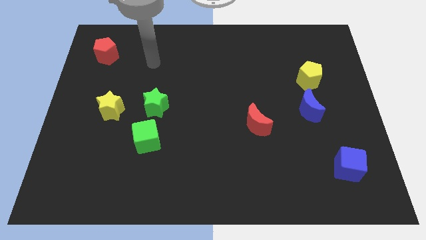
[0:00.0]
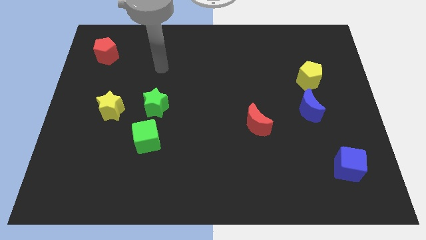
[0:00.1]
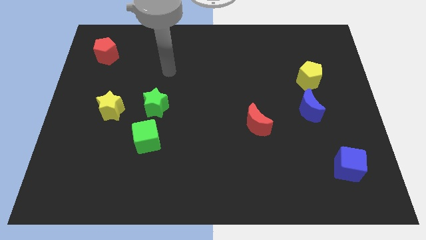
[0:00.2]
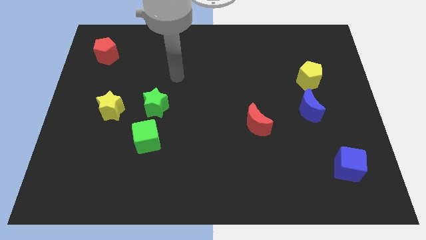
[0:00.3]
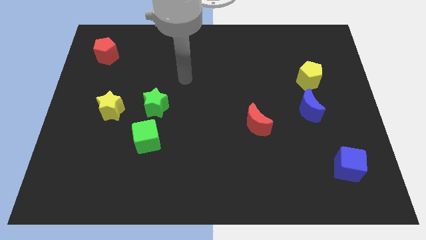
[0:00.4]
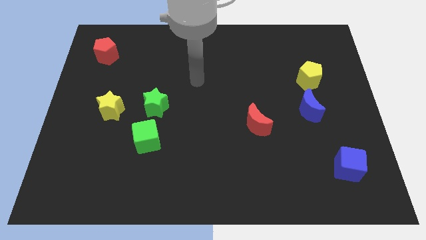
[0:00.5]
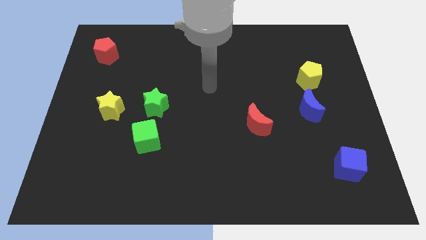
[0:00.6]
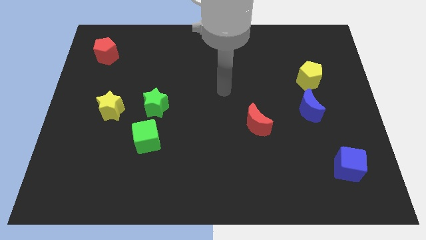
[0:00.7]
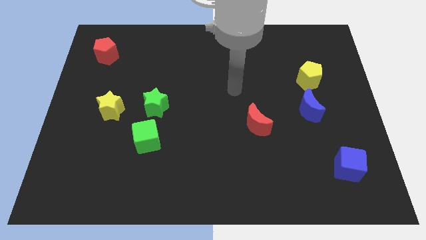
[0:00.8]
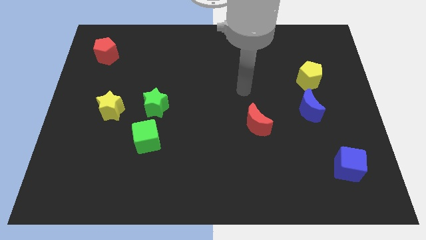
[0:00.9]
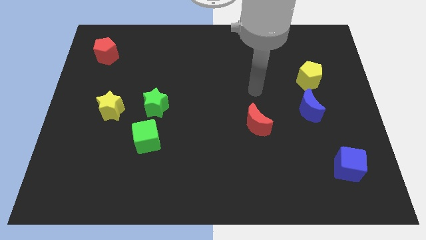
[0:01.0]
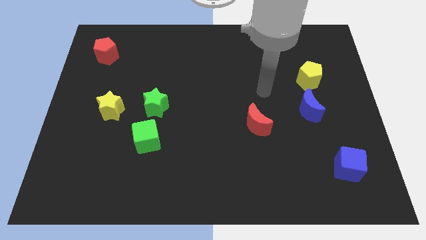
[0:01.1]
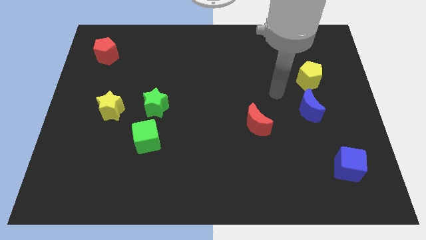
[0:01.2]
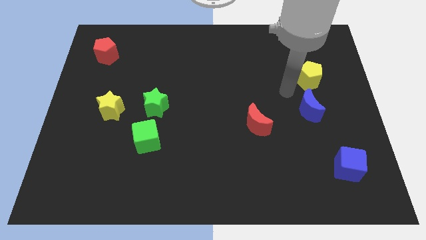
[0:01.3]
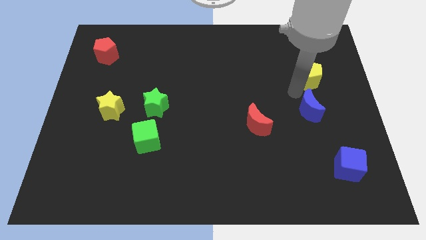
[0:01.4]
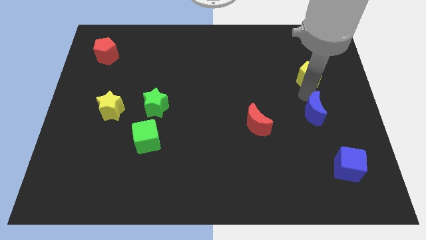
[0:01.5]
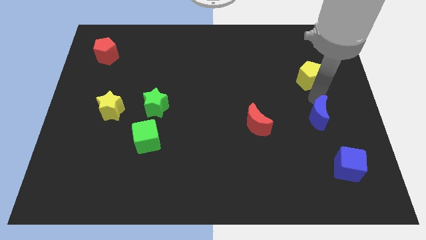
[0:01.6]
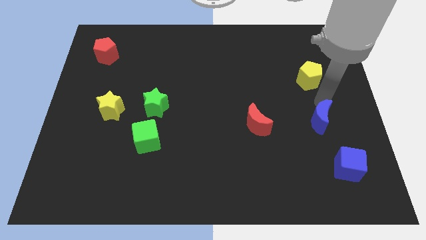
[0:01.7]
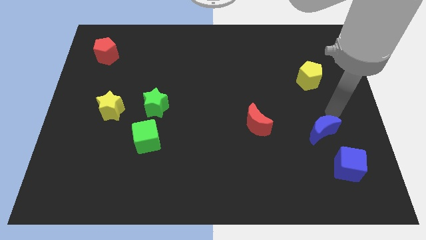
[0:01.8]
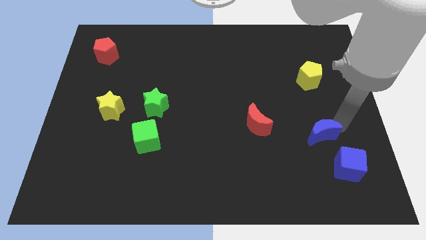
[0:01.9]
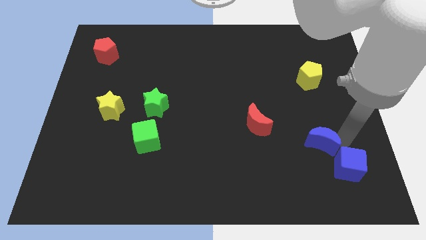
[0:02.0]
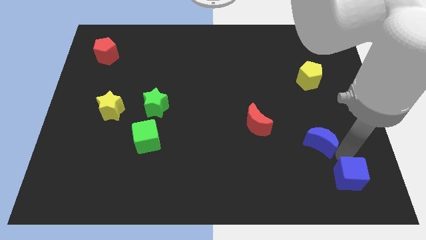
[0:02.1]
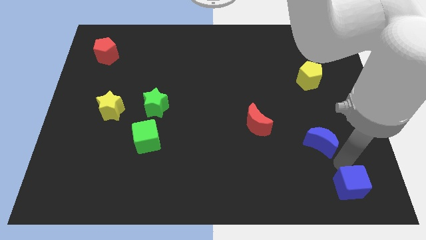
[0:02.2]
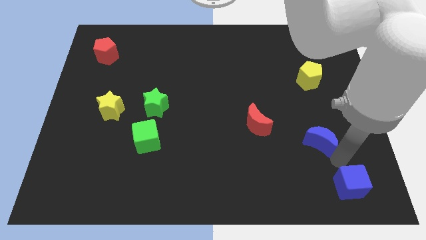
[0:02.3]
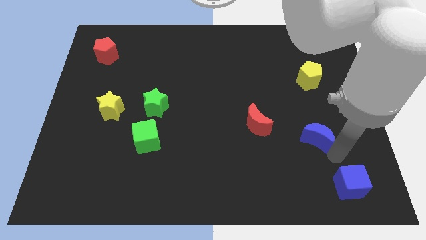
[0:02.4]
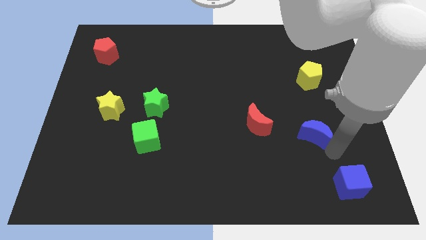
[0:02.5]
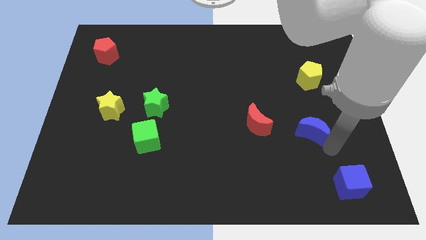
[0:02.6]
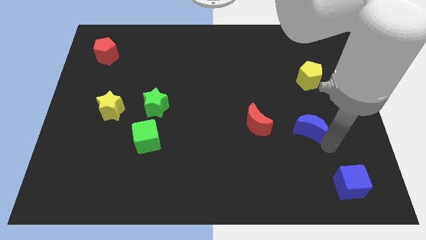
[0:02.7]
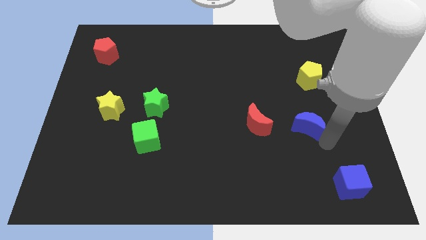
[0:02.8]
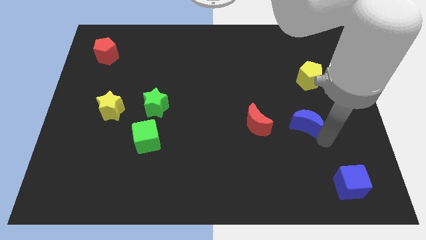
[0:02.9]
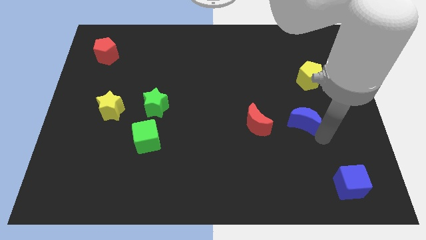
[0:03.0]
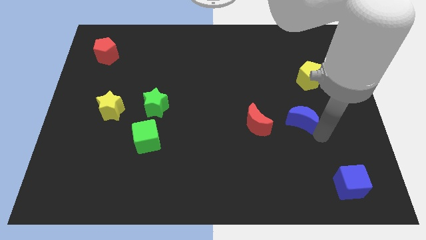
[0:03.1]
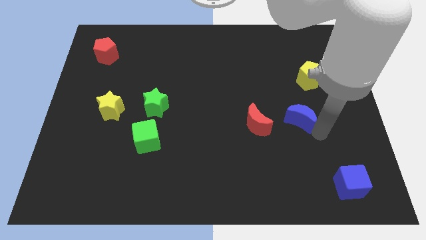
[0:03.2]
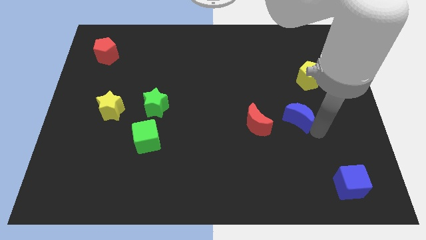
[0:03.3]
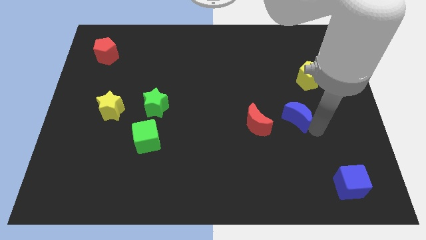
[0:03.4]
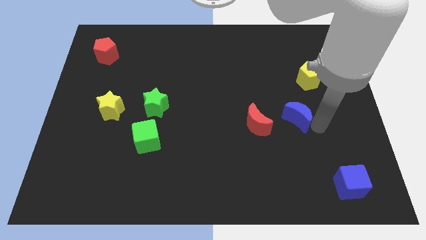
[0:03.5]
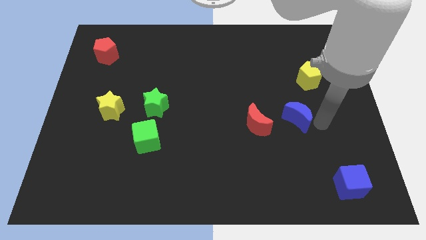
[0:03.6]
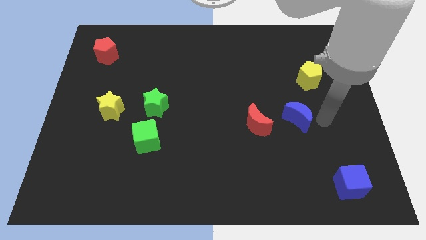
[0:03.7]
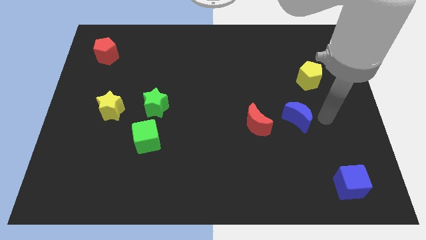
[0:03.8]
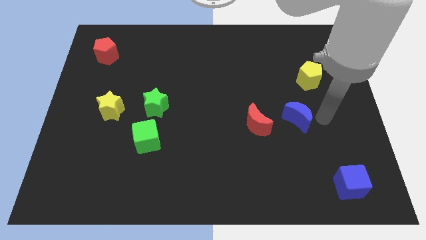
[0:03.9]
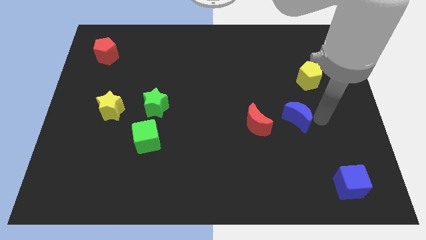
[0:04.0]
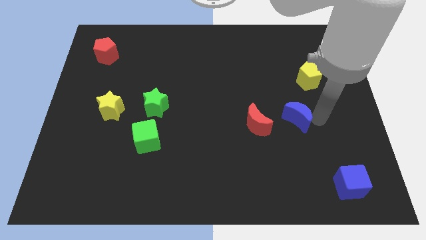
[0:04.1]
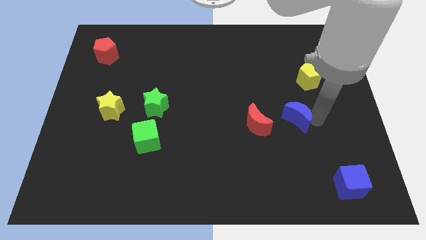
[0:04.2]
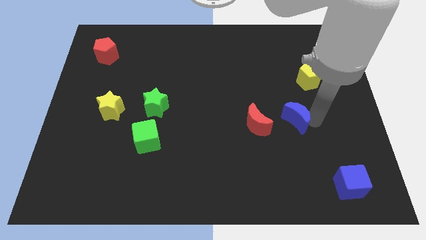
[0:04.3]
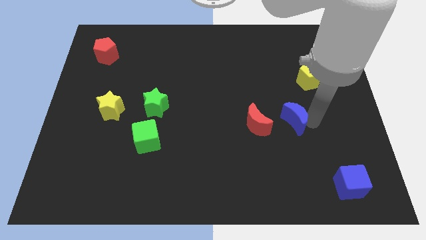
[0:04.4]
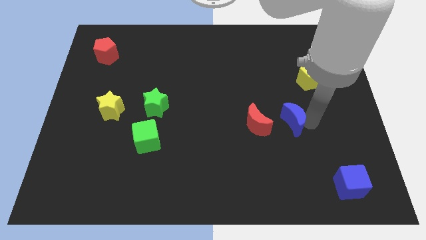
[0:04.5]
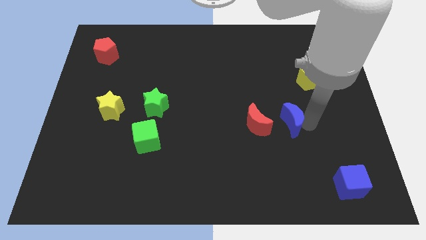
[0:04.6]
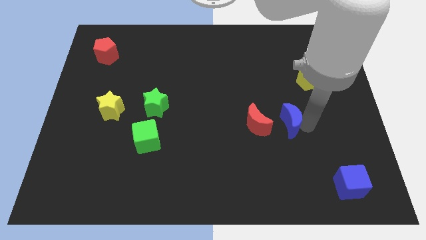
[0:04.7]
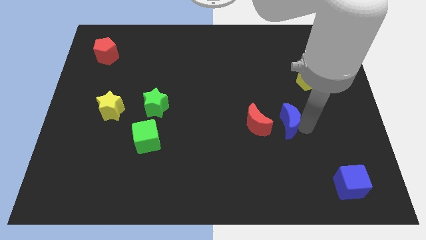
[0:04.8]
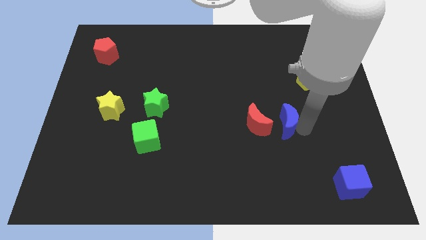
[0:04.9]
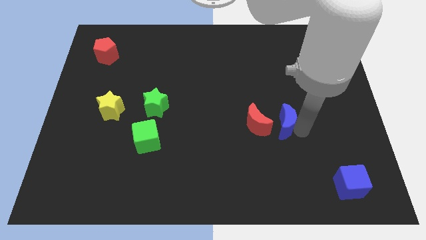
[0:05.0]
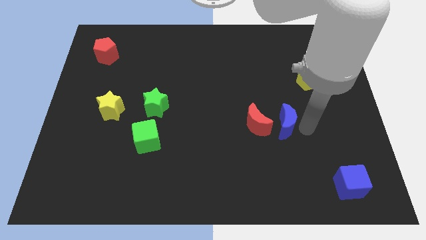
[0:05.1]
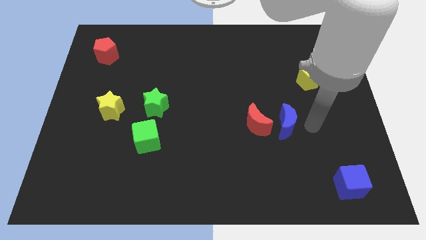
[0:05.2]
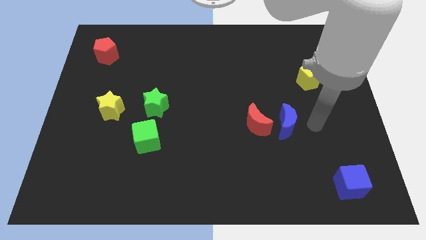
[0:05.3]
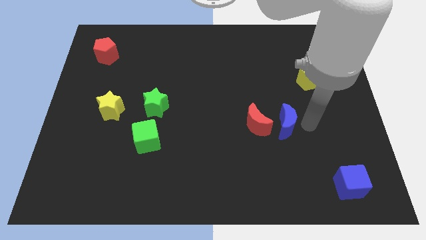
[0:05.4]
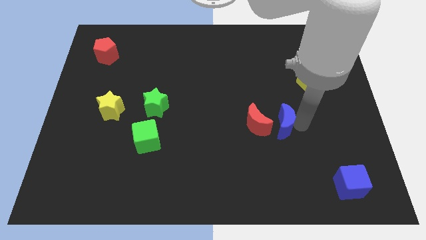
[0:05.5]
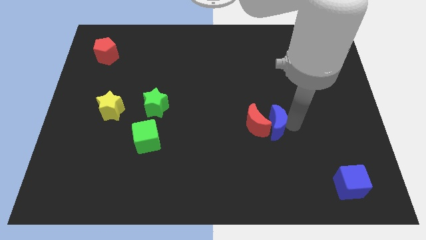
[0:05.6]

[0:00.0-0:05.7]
move the blue moon close to the red moon

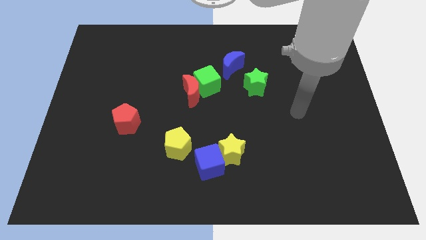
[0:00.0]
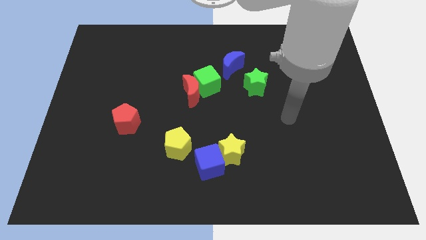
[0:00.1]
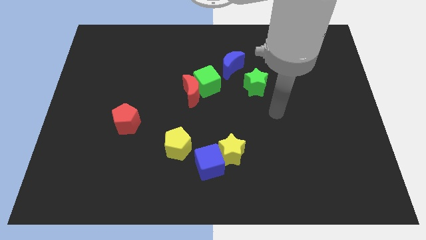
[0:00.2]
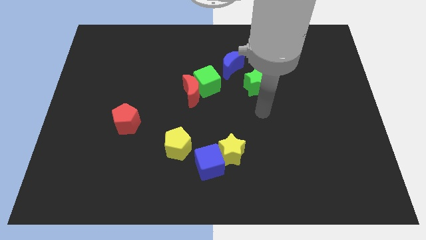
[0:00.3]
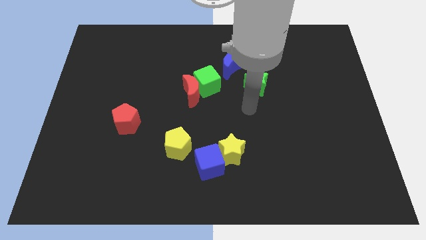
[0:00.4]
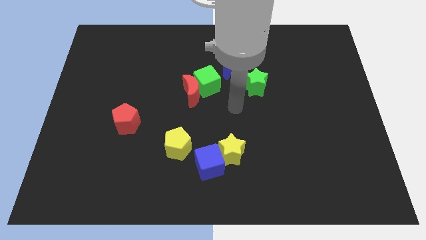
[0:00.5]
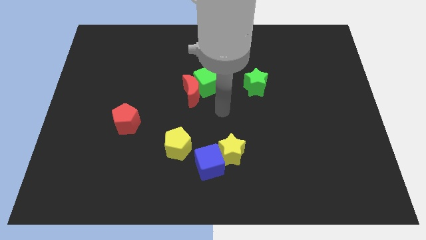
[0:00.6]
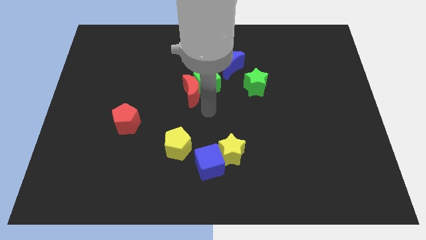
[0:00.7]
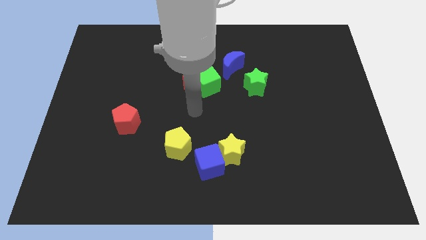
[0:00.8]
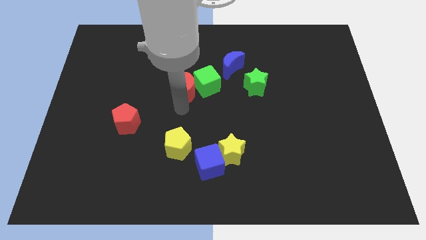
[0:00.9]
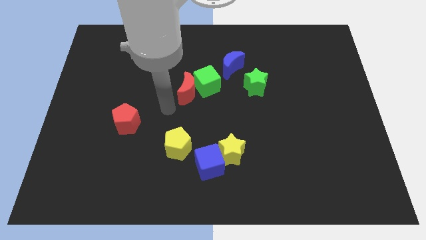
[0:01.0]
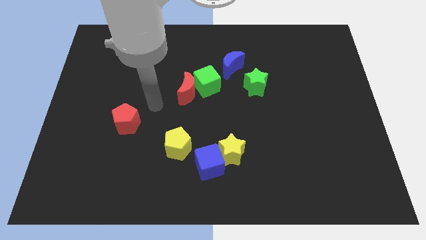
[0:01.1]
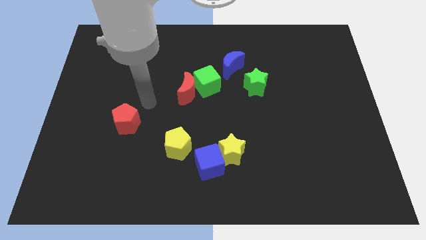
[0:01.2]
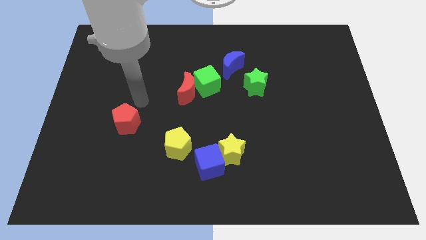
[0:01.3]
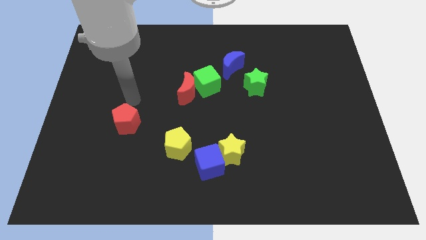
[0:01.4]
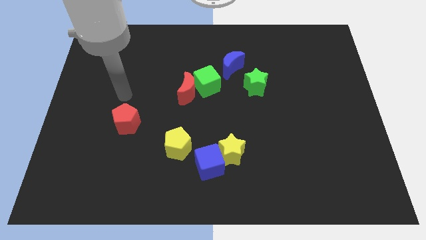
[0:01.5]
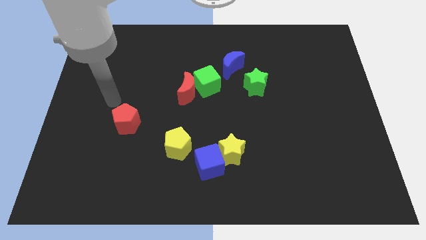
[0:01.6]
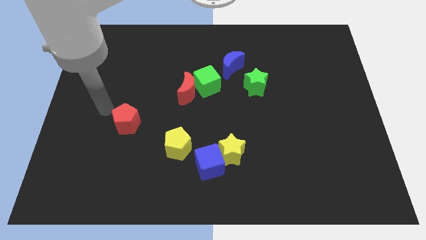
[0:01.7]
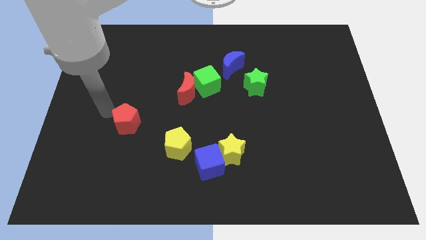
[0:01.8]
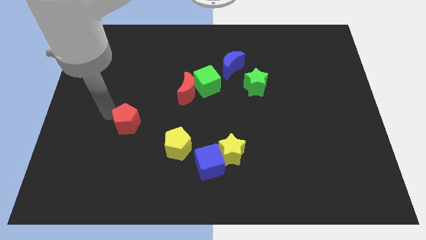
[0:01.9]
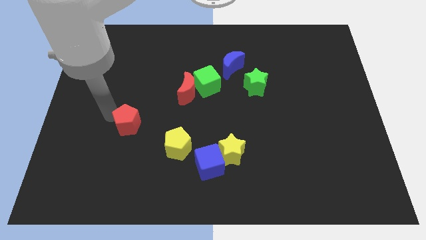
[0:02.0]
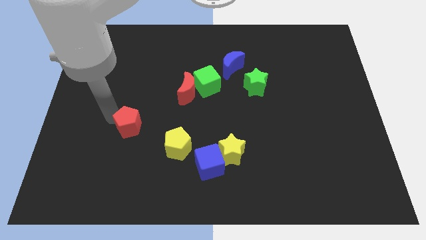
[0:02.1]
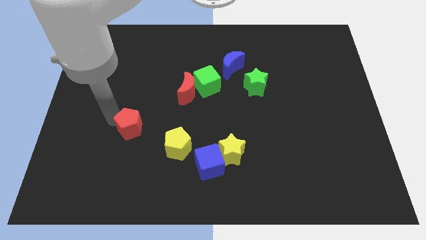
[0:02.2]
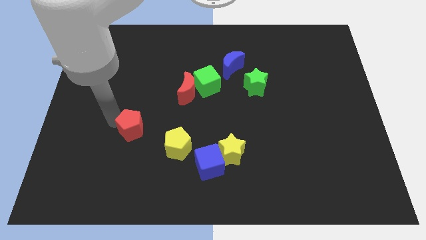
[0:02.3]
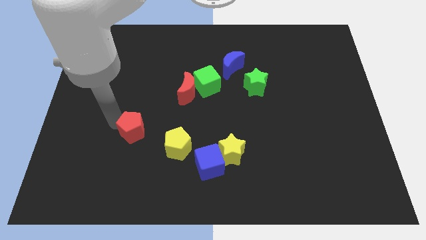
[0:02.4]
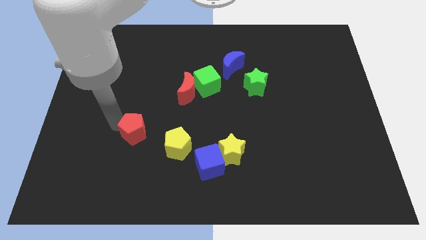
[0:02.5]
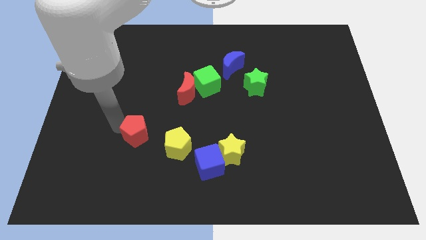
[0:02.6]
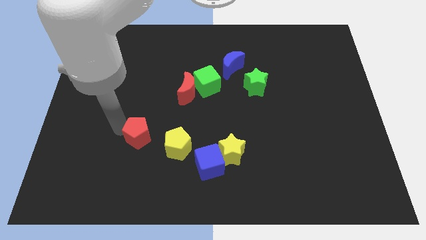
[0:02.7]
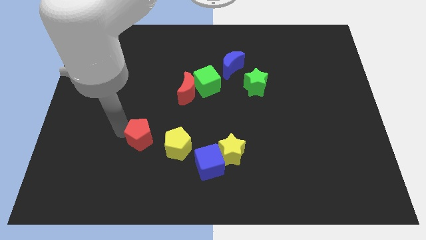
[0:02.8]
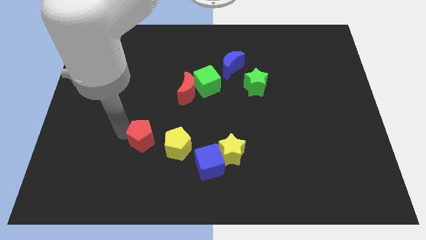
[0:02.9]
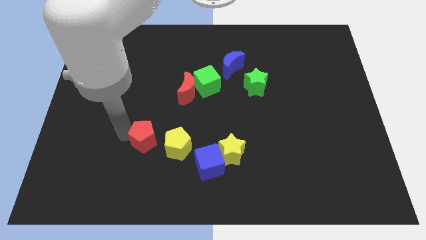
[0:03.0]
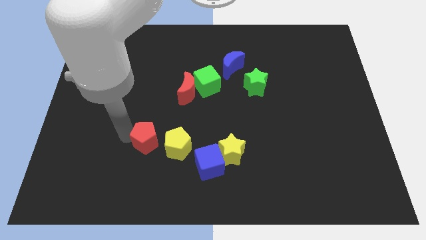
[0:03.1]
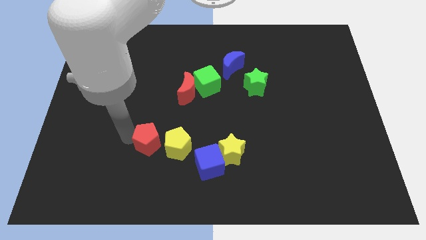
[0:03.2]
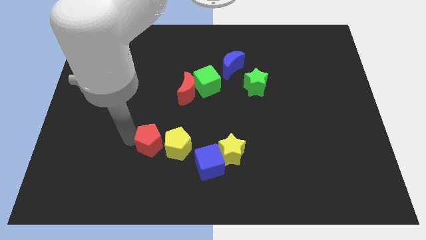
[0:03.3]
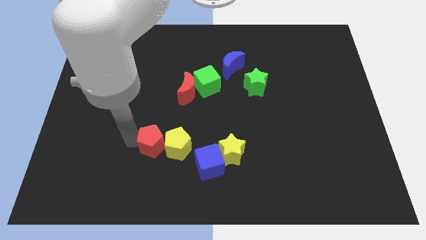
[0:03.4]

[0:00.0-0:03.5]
move the red pentagon to the yellow pentagon
